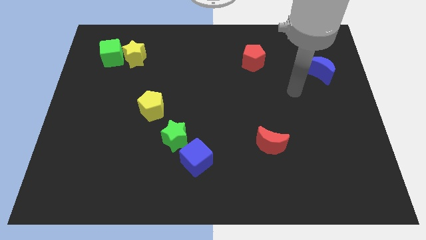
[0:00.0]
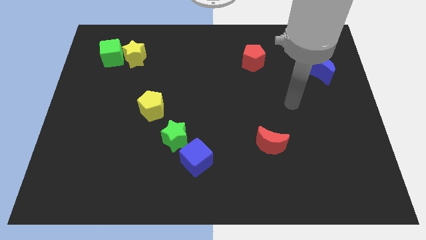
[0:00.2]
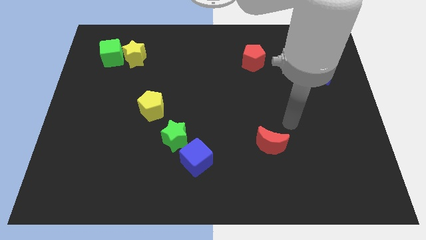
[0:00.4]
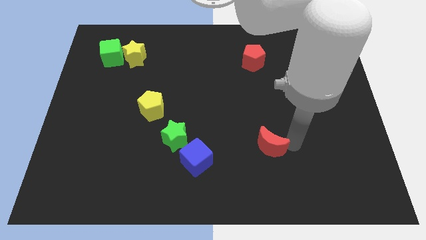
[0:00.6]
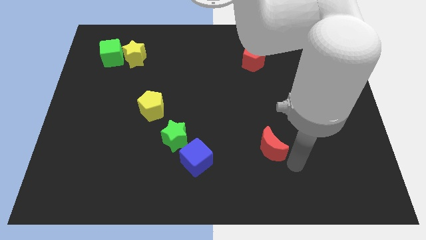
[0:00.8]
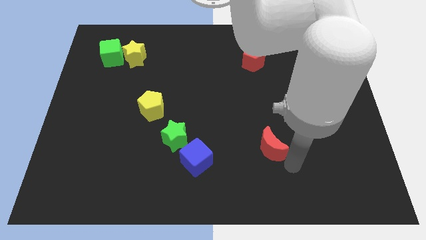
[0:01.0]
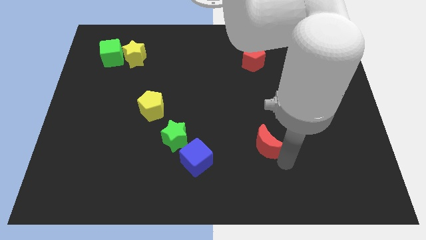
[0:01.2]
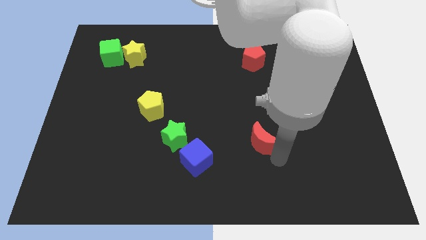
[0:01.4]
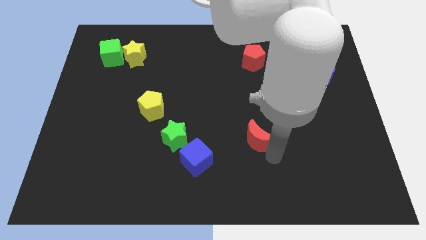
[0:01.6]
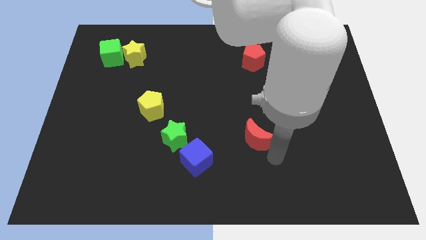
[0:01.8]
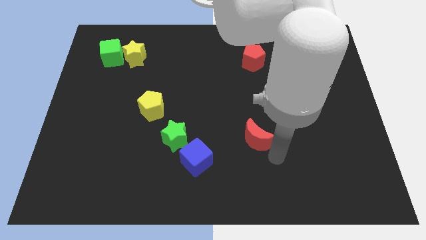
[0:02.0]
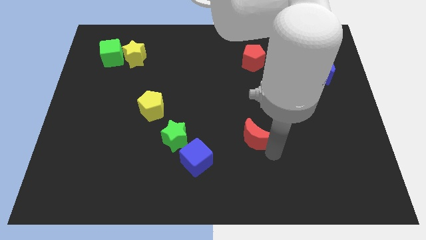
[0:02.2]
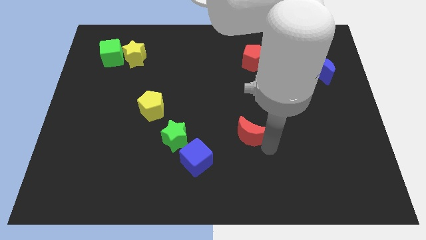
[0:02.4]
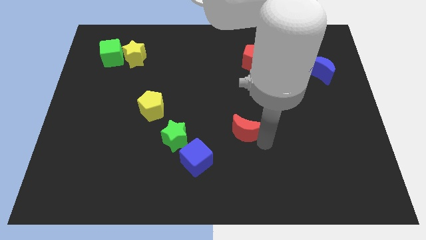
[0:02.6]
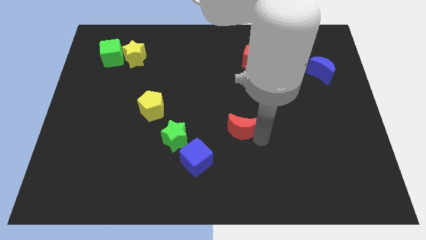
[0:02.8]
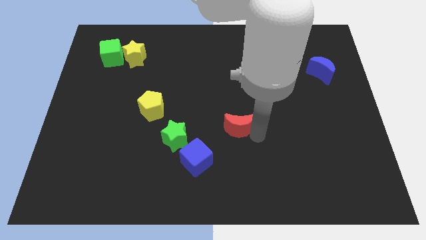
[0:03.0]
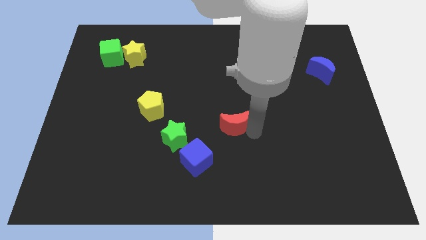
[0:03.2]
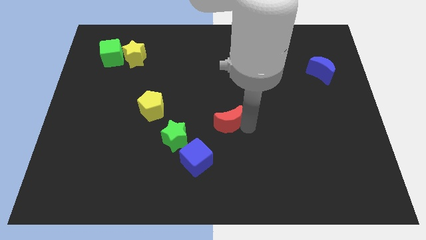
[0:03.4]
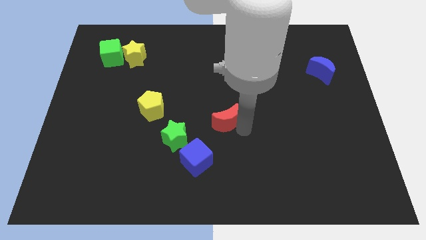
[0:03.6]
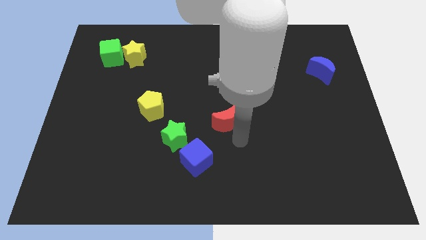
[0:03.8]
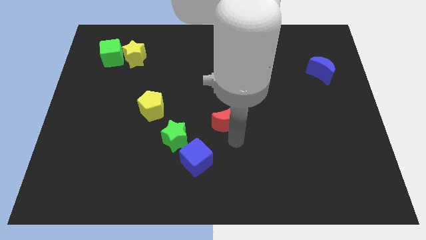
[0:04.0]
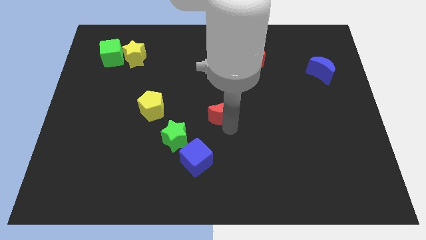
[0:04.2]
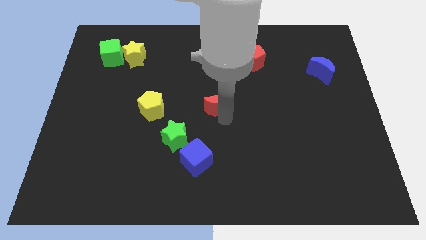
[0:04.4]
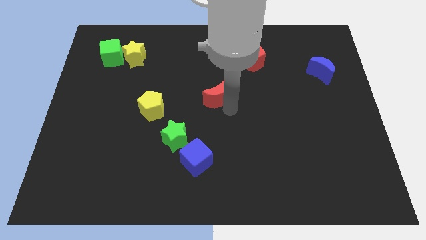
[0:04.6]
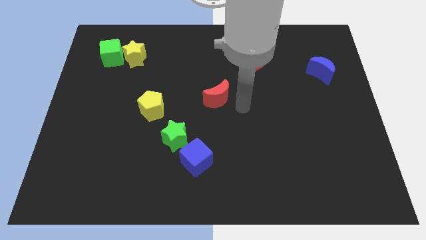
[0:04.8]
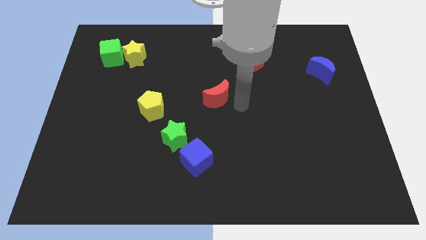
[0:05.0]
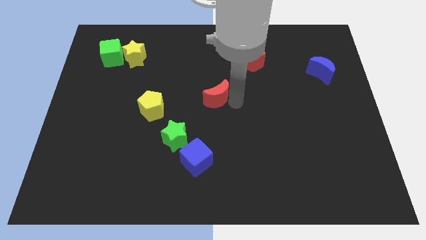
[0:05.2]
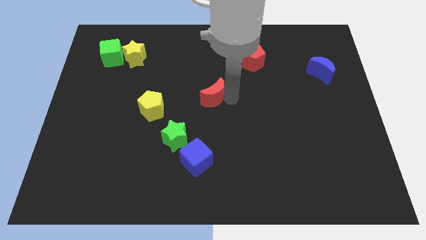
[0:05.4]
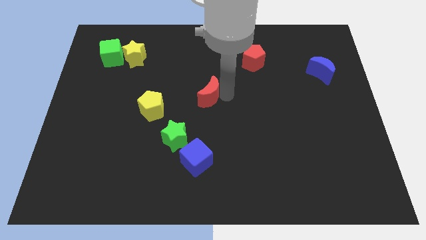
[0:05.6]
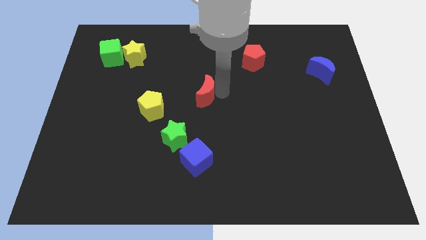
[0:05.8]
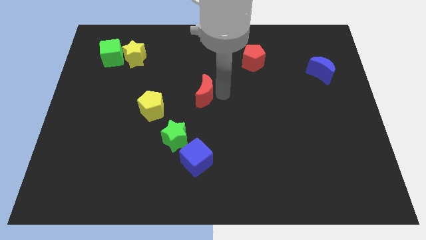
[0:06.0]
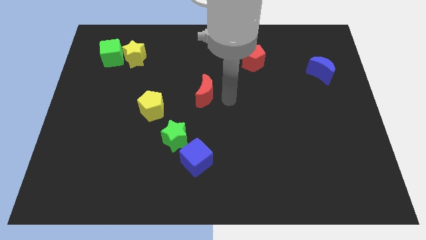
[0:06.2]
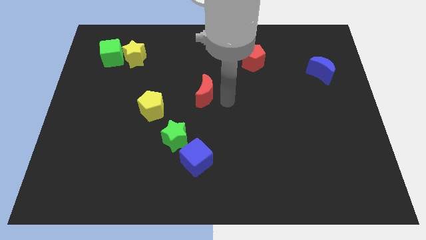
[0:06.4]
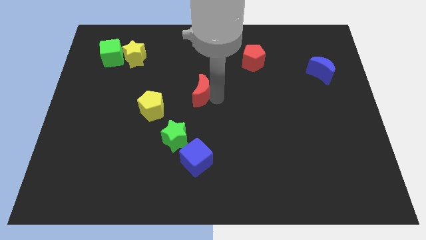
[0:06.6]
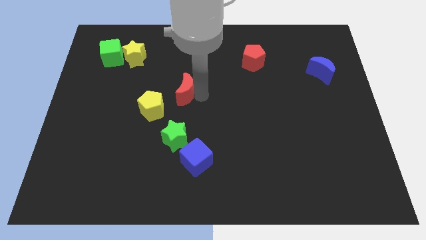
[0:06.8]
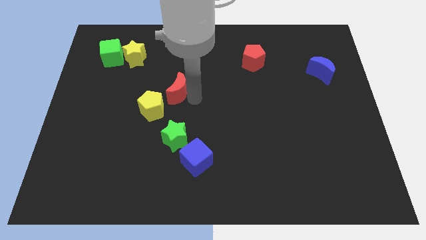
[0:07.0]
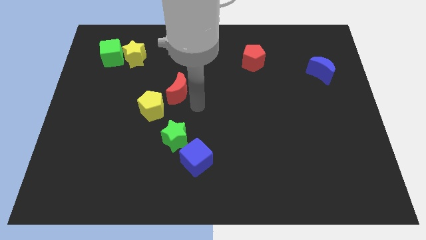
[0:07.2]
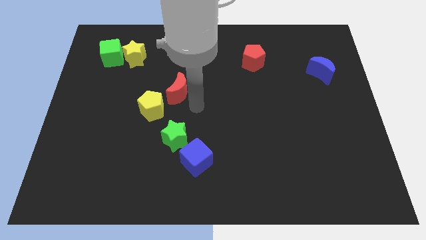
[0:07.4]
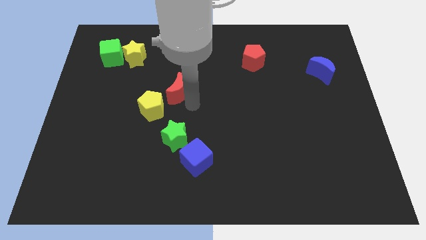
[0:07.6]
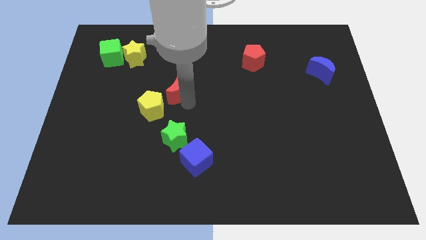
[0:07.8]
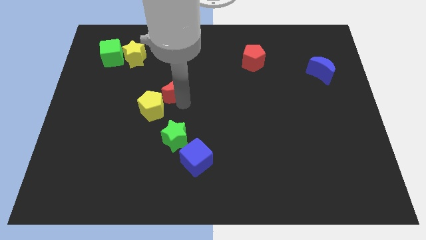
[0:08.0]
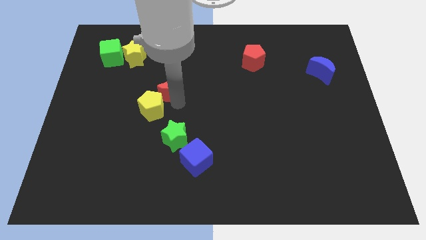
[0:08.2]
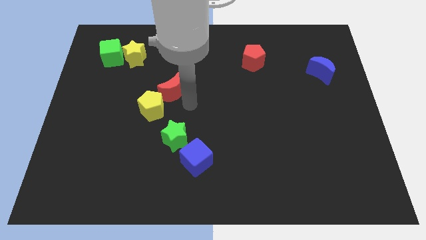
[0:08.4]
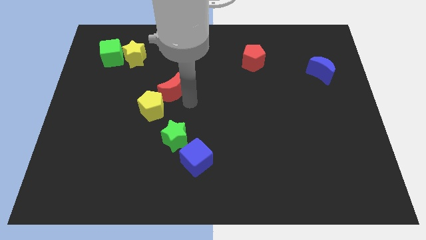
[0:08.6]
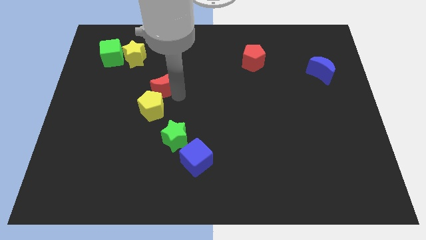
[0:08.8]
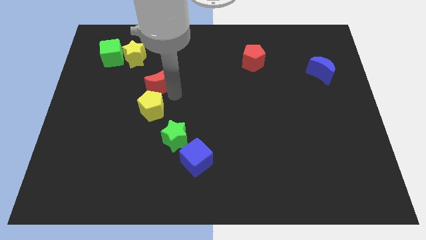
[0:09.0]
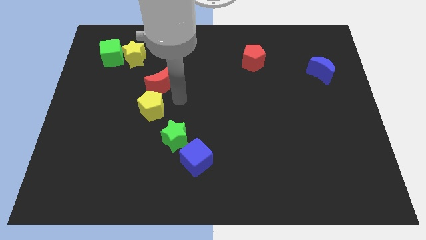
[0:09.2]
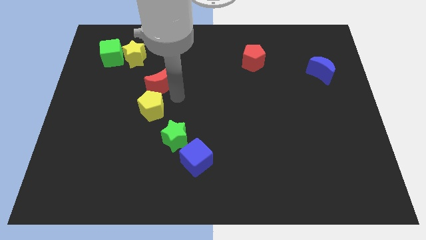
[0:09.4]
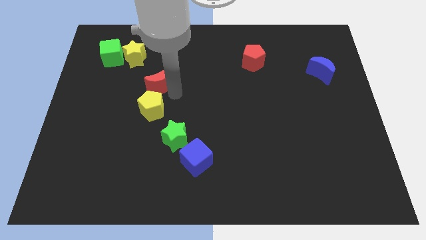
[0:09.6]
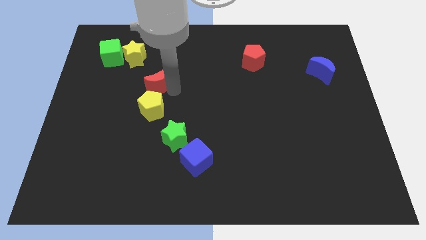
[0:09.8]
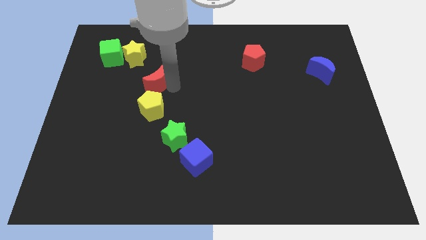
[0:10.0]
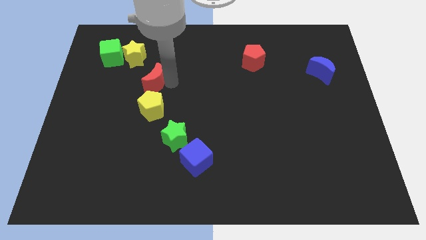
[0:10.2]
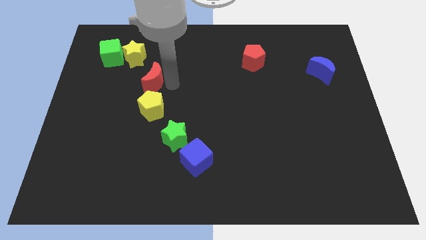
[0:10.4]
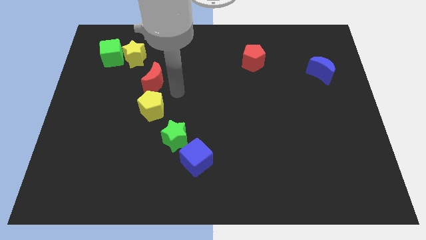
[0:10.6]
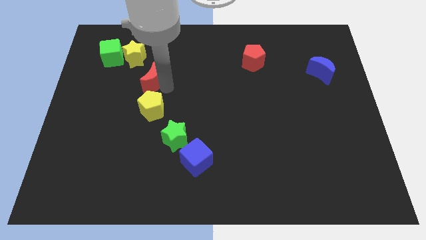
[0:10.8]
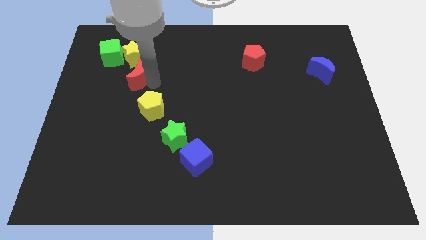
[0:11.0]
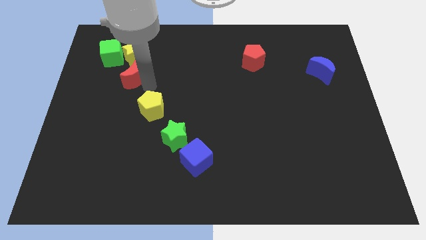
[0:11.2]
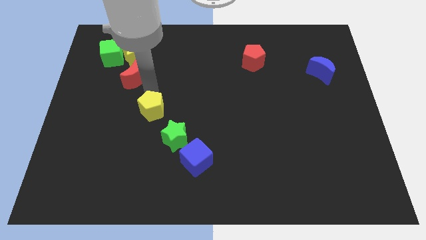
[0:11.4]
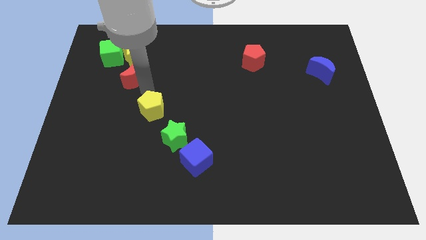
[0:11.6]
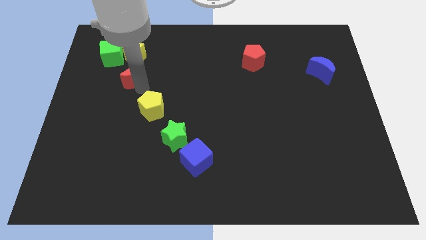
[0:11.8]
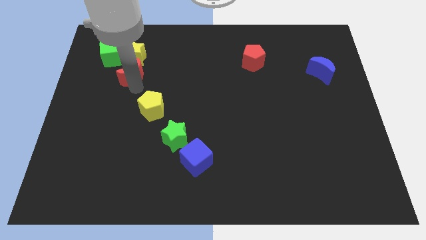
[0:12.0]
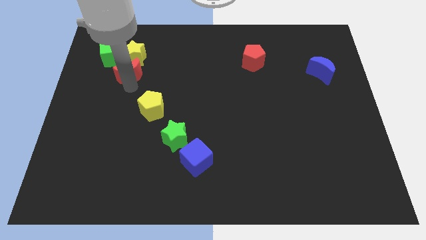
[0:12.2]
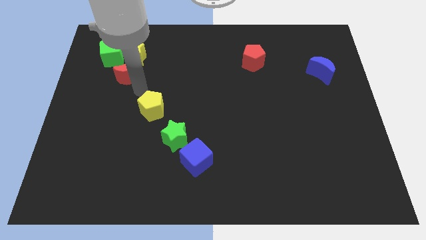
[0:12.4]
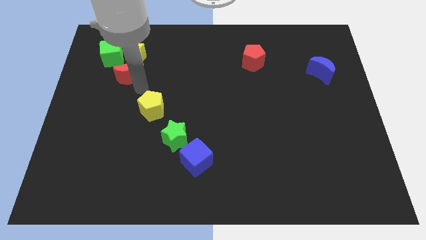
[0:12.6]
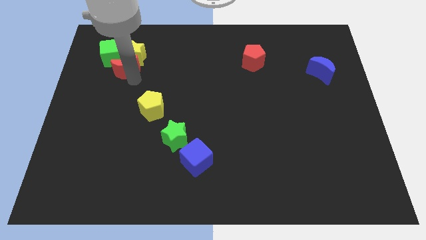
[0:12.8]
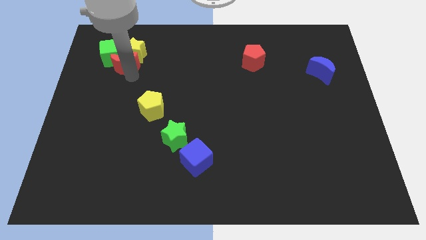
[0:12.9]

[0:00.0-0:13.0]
push the red moon next to the green cube
